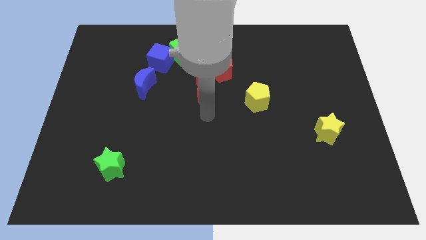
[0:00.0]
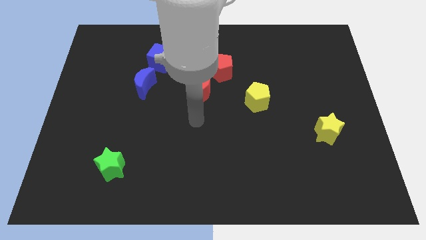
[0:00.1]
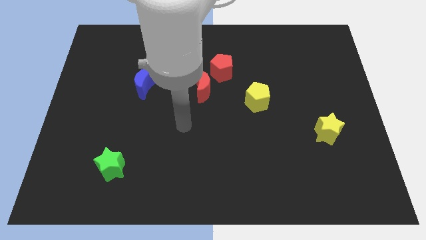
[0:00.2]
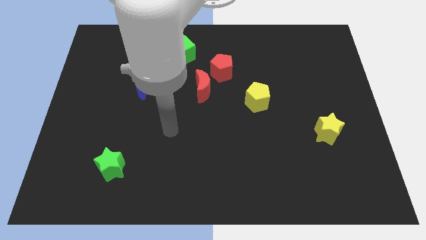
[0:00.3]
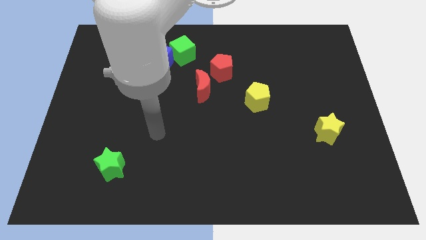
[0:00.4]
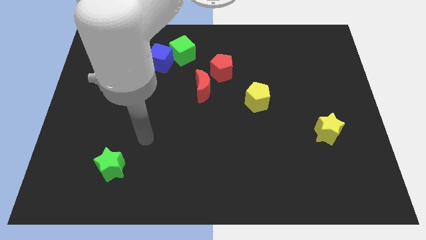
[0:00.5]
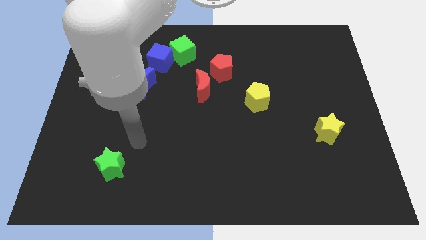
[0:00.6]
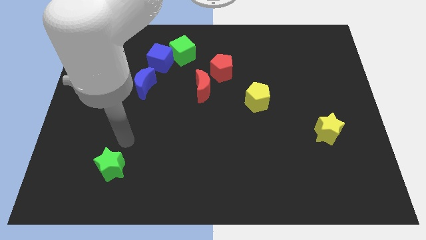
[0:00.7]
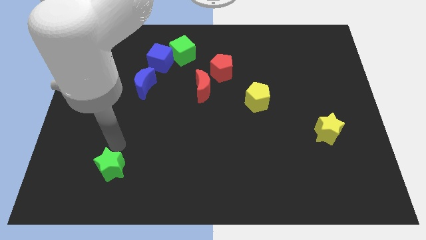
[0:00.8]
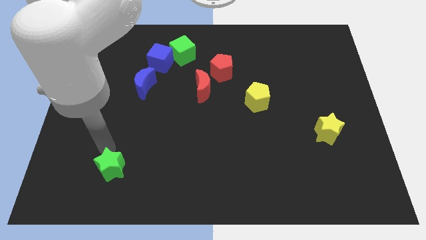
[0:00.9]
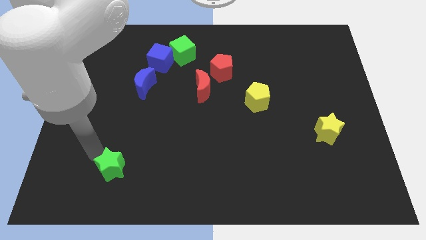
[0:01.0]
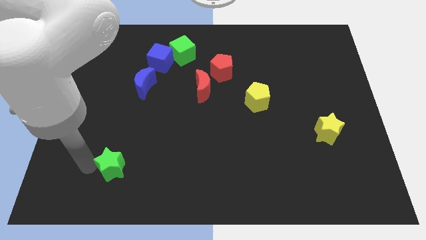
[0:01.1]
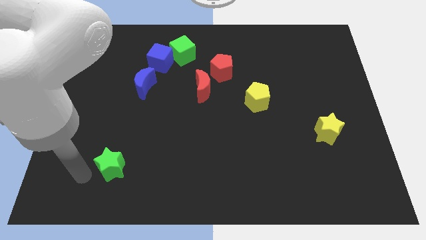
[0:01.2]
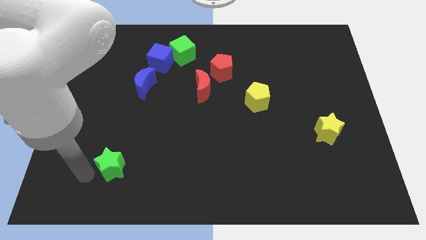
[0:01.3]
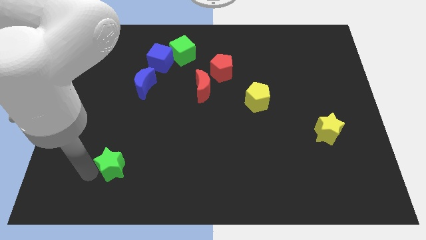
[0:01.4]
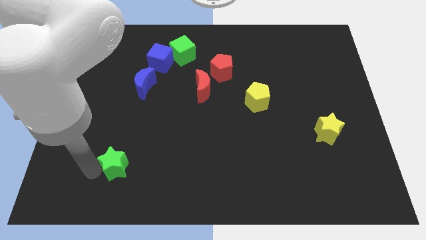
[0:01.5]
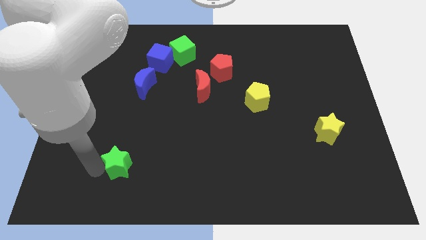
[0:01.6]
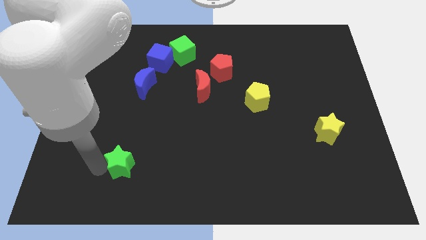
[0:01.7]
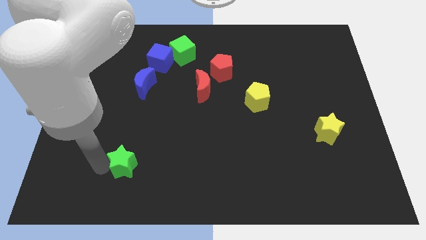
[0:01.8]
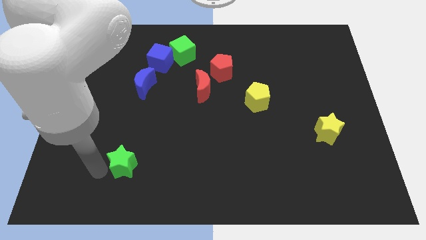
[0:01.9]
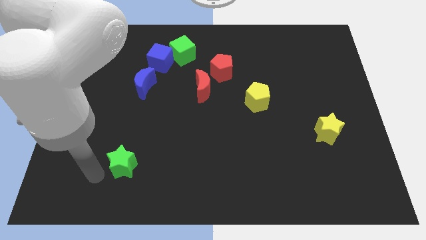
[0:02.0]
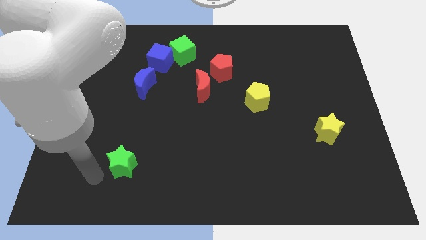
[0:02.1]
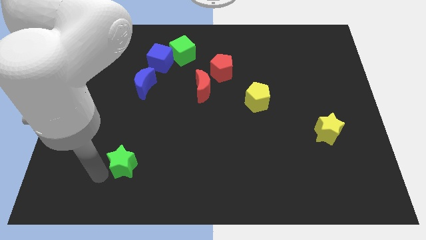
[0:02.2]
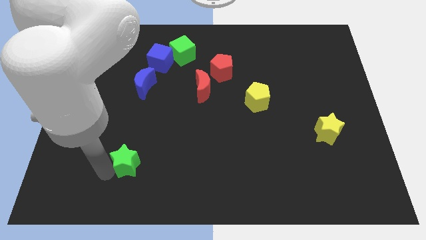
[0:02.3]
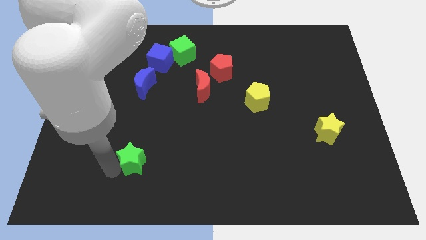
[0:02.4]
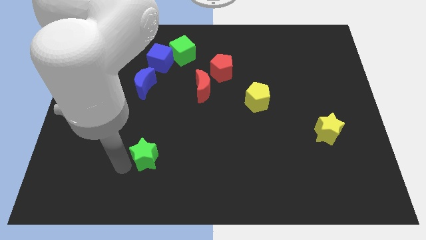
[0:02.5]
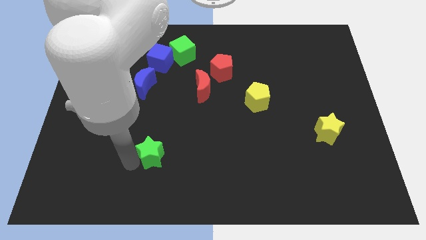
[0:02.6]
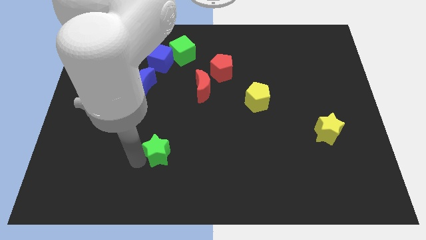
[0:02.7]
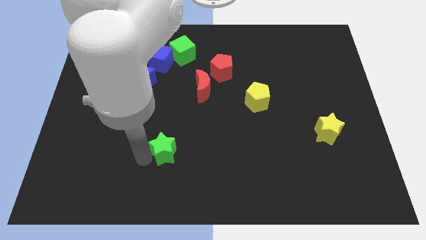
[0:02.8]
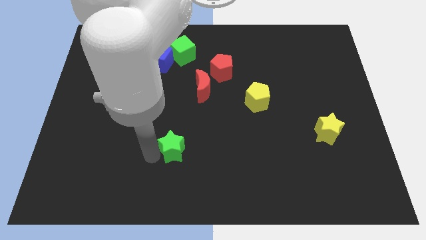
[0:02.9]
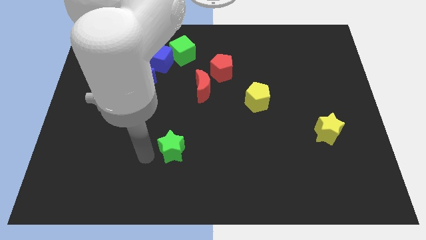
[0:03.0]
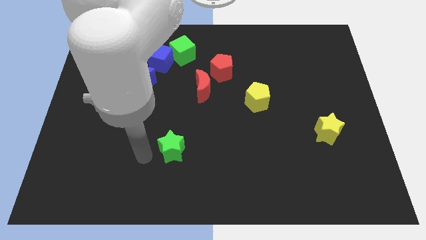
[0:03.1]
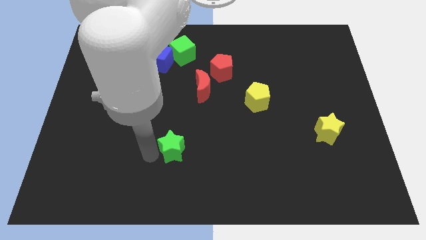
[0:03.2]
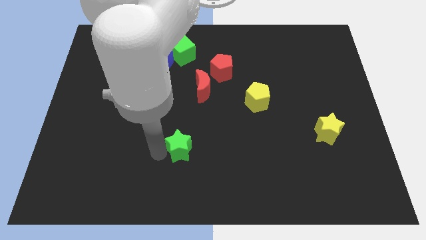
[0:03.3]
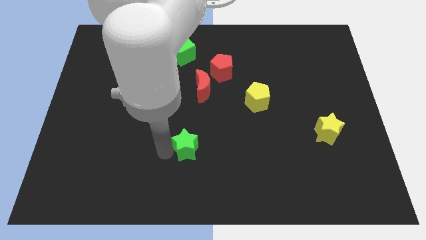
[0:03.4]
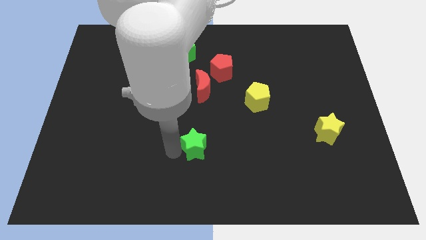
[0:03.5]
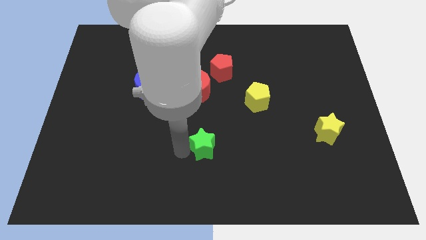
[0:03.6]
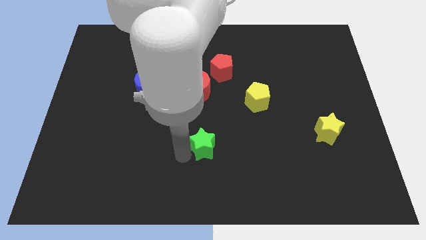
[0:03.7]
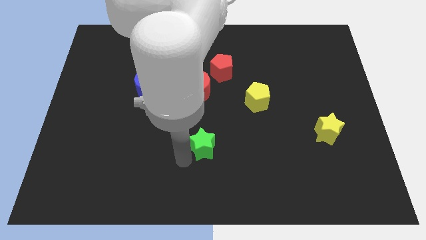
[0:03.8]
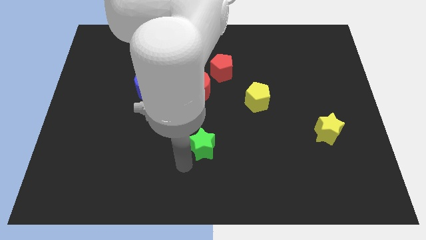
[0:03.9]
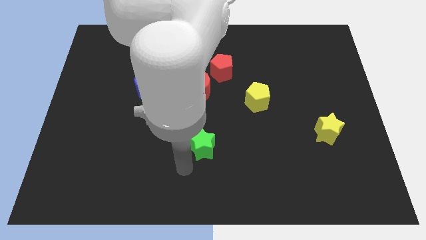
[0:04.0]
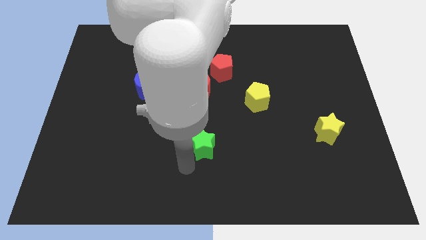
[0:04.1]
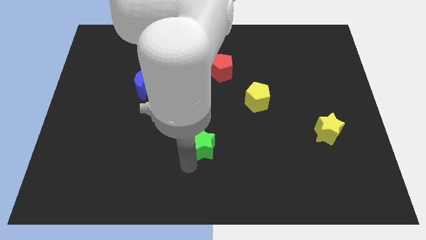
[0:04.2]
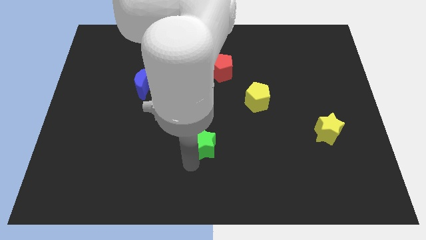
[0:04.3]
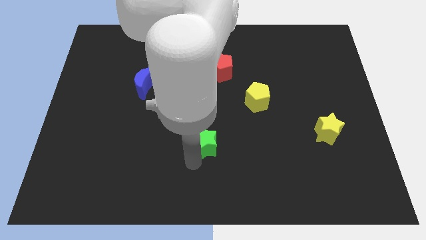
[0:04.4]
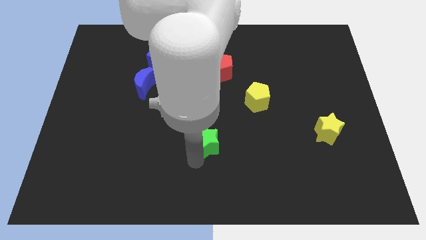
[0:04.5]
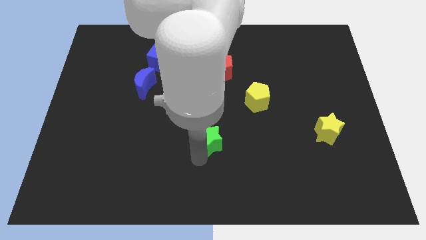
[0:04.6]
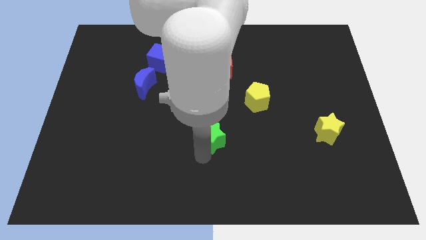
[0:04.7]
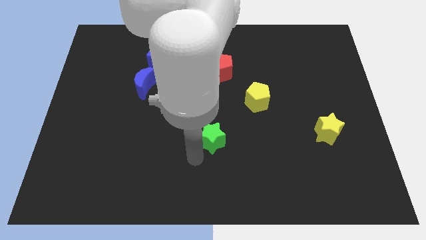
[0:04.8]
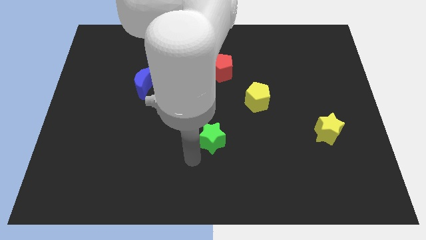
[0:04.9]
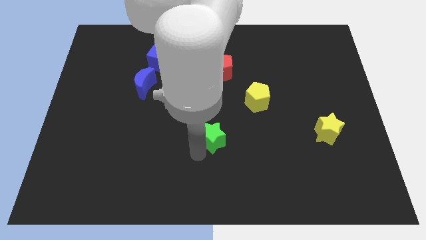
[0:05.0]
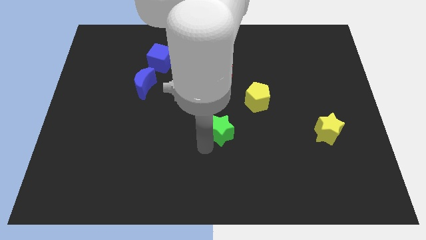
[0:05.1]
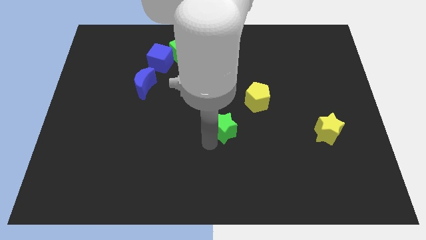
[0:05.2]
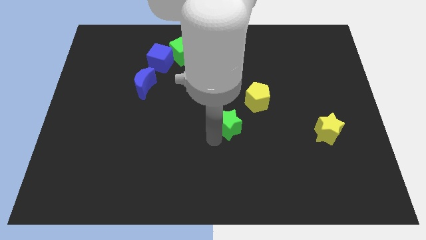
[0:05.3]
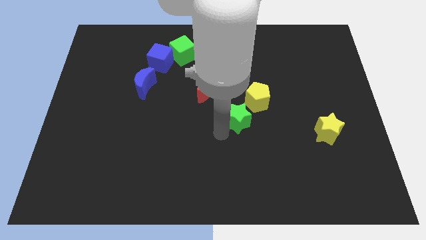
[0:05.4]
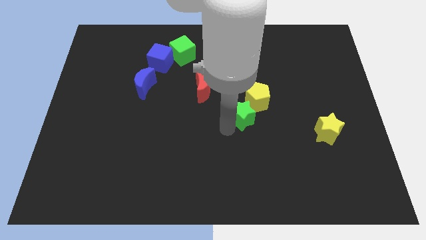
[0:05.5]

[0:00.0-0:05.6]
push the green star next to the yellow pentagon

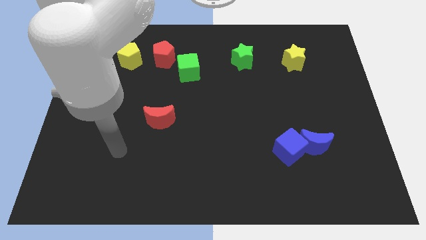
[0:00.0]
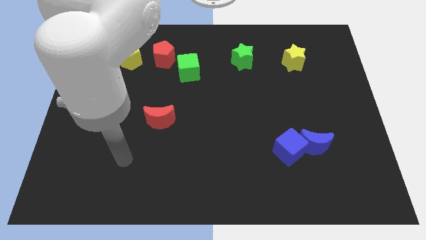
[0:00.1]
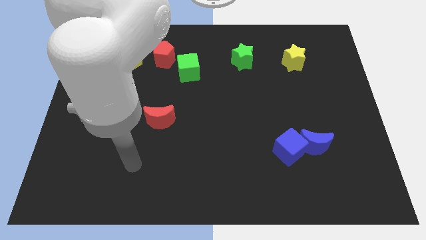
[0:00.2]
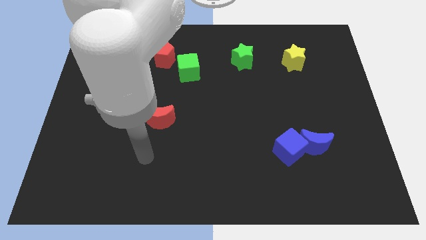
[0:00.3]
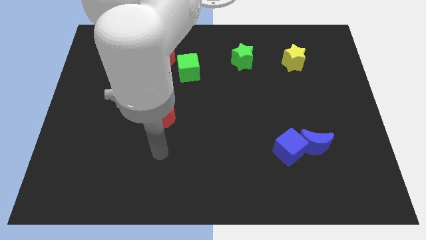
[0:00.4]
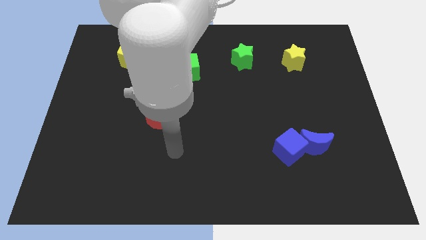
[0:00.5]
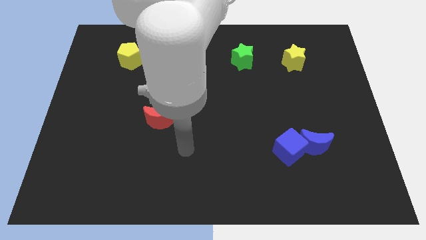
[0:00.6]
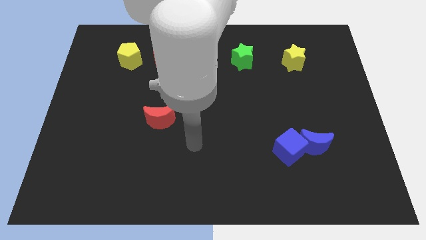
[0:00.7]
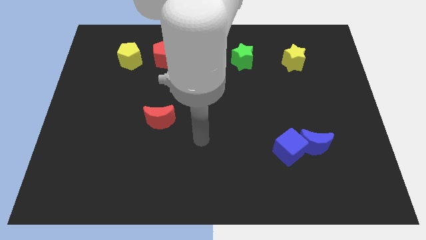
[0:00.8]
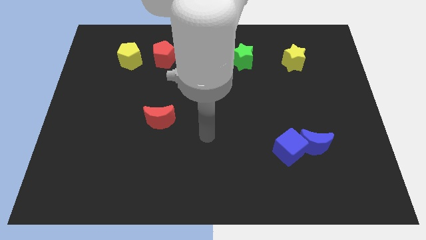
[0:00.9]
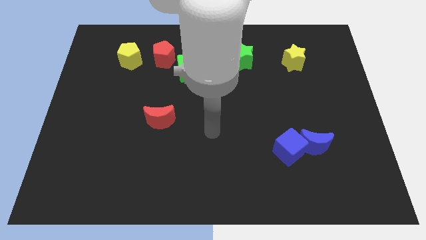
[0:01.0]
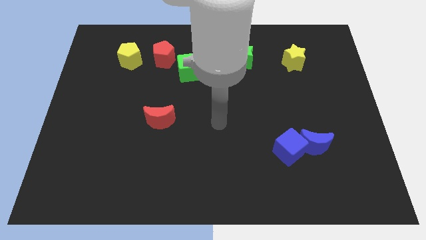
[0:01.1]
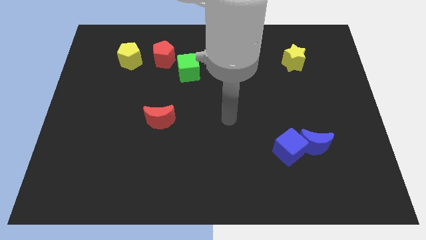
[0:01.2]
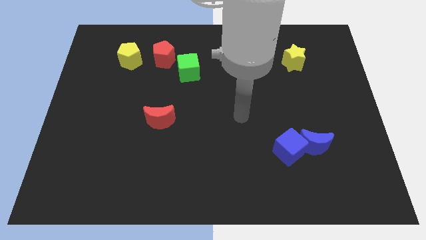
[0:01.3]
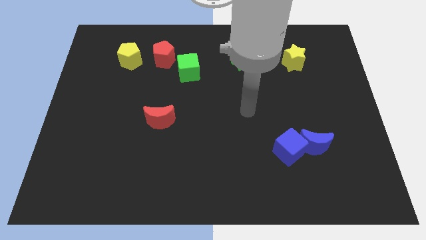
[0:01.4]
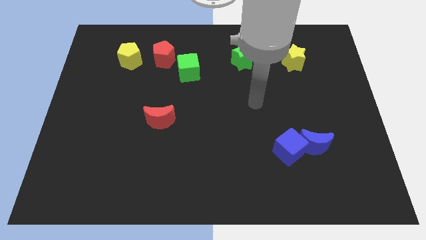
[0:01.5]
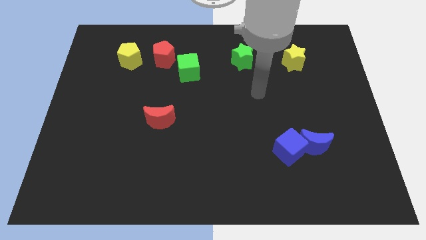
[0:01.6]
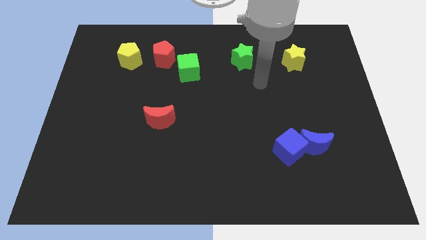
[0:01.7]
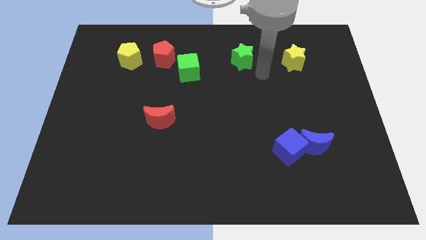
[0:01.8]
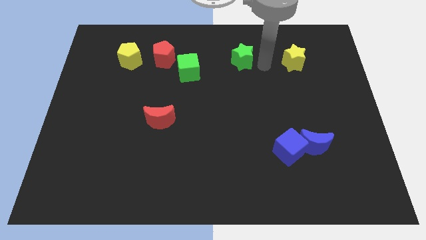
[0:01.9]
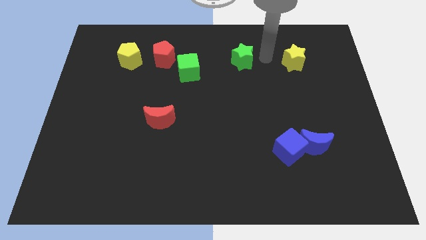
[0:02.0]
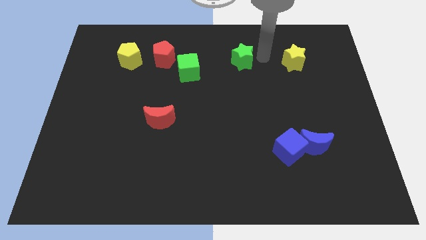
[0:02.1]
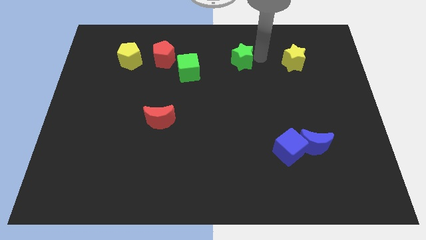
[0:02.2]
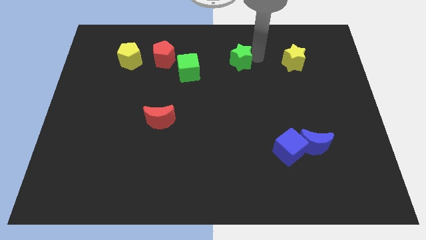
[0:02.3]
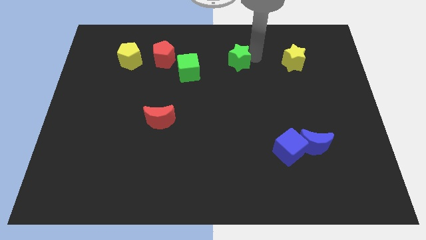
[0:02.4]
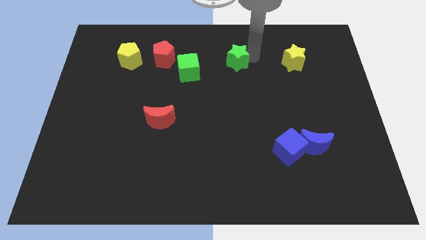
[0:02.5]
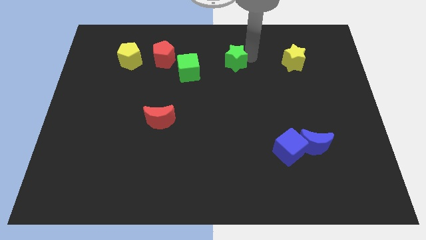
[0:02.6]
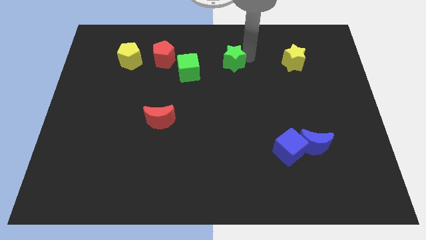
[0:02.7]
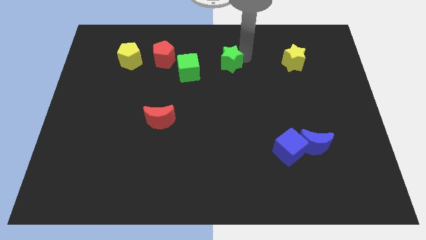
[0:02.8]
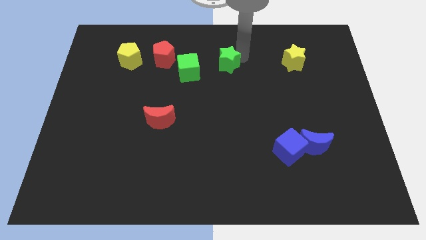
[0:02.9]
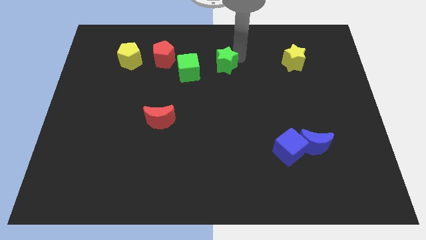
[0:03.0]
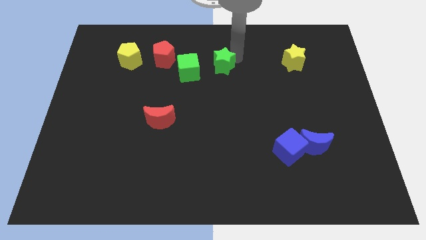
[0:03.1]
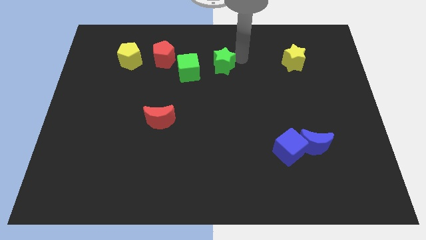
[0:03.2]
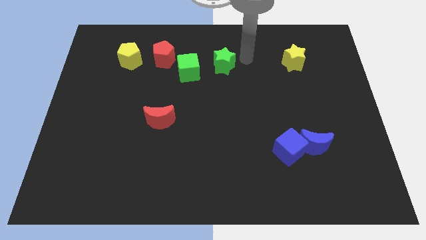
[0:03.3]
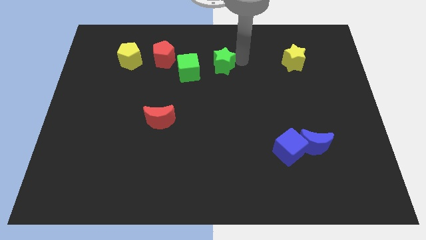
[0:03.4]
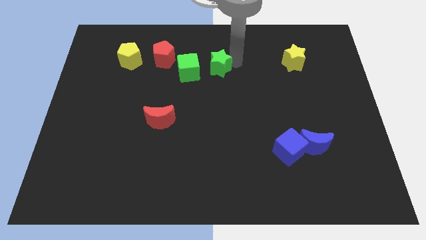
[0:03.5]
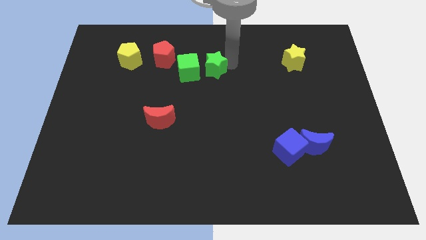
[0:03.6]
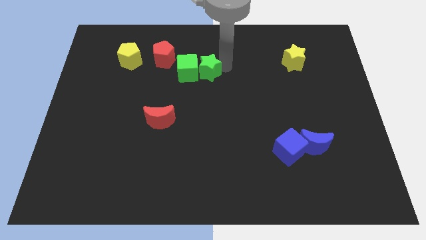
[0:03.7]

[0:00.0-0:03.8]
push the green star next to the green cube
